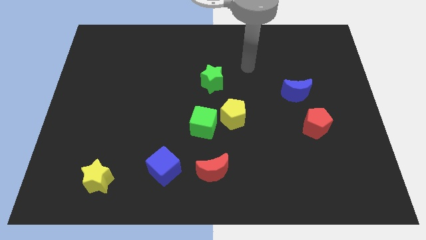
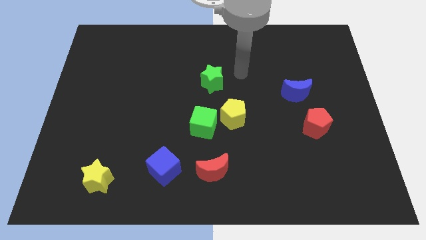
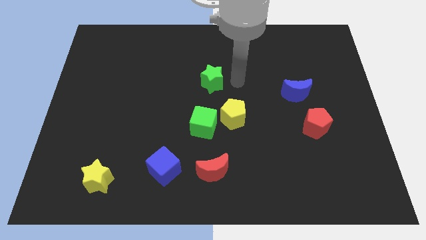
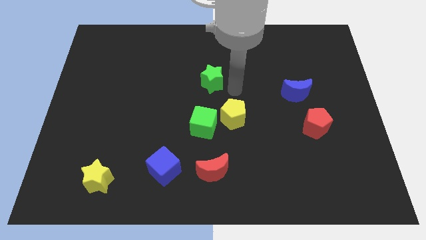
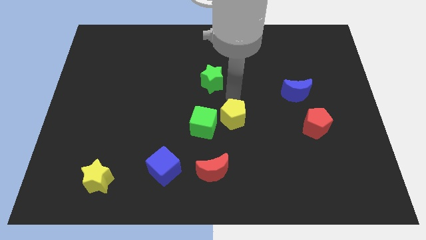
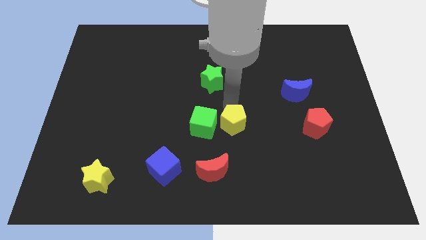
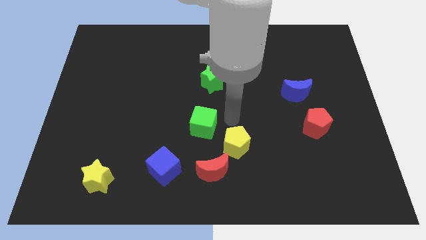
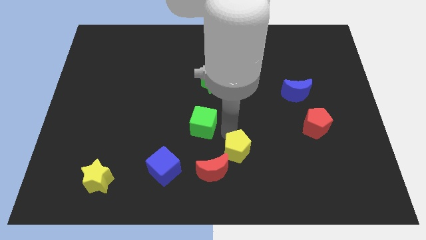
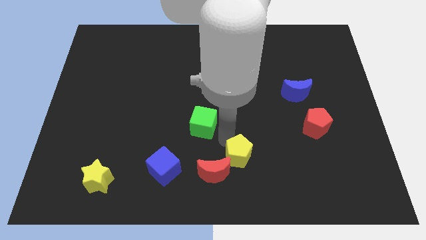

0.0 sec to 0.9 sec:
separate the green cube from the yellow pentagon

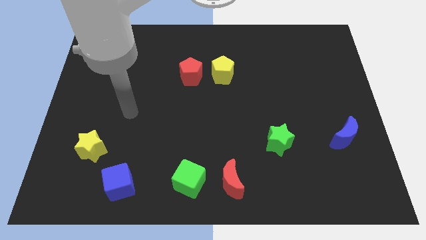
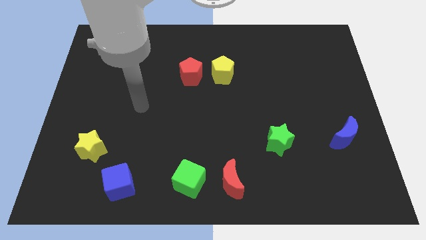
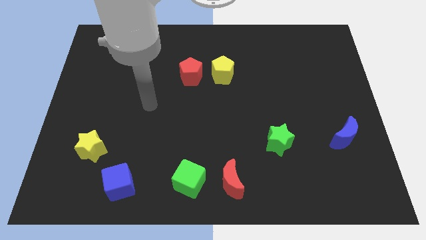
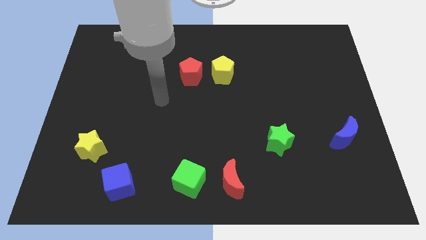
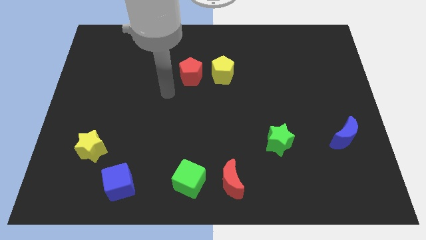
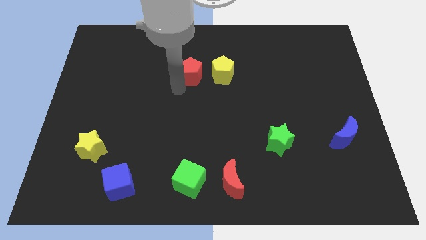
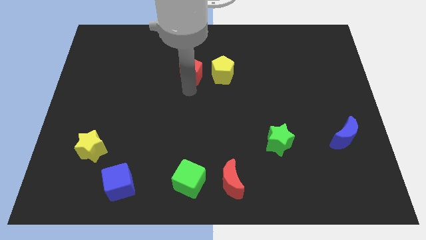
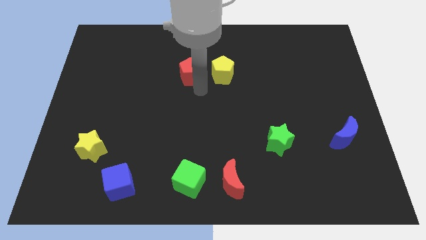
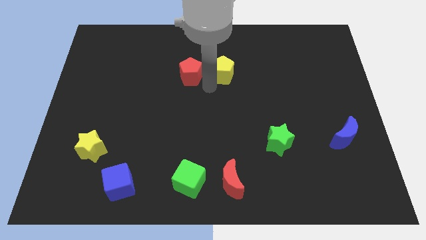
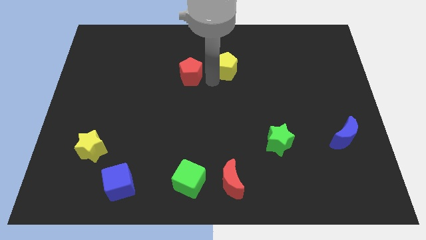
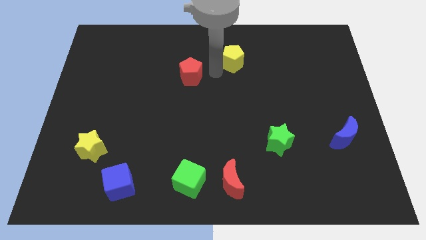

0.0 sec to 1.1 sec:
move the red pentagon away from the yellow pentagon

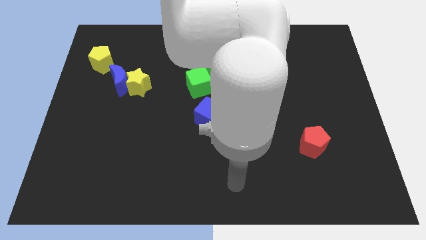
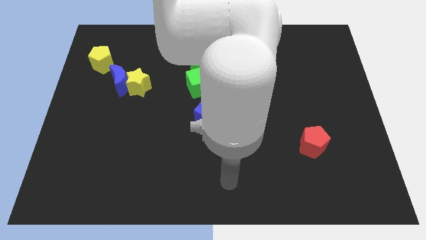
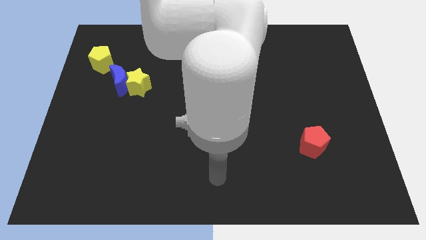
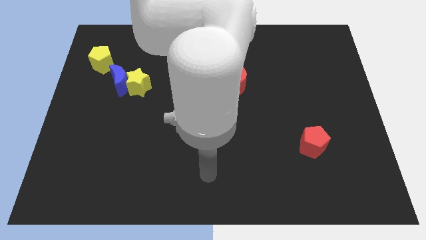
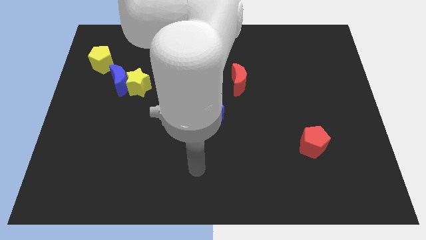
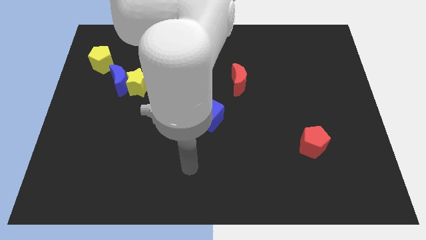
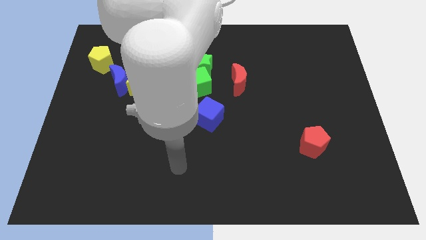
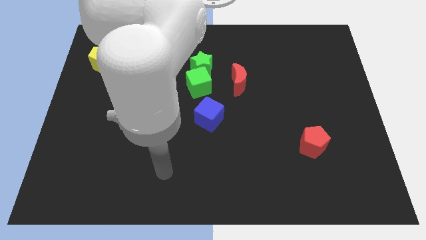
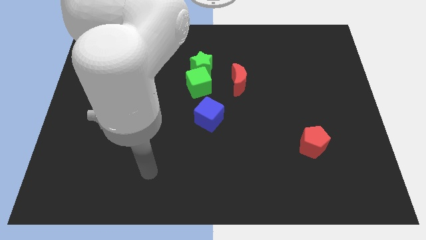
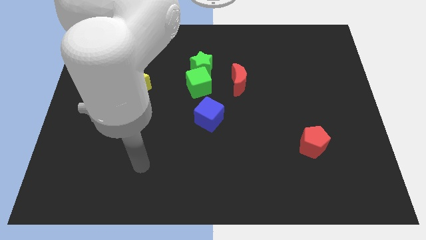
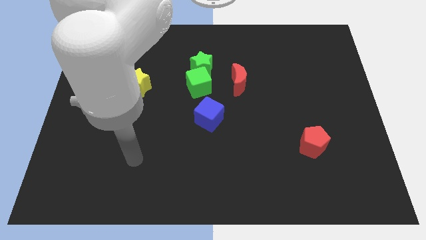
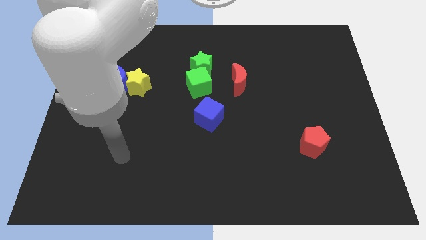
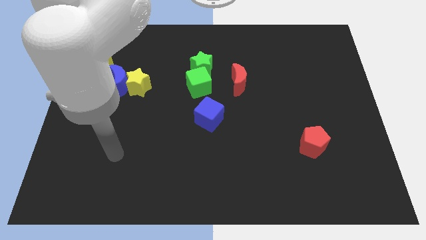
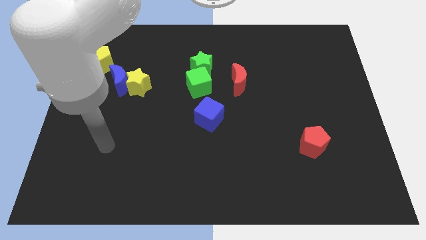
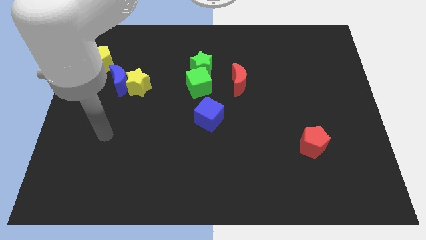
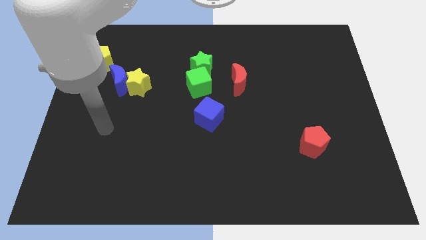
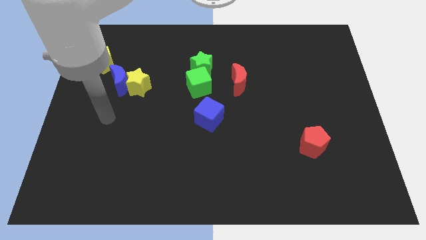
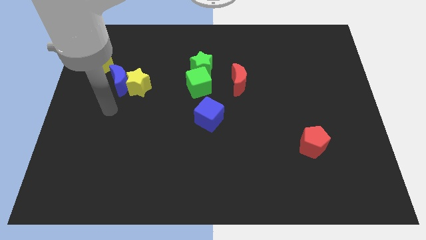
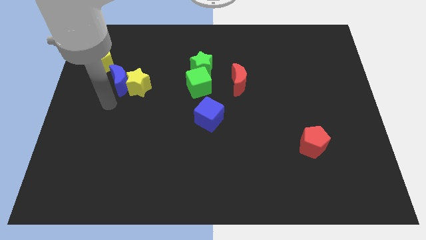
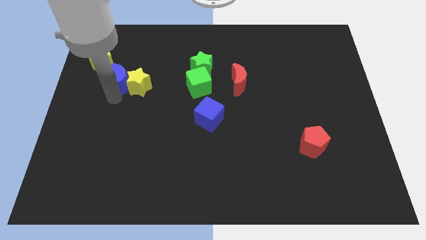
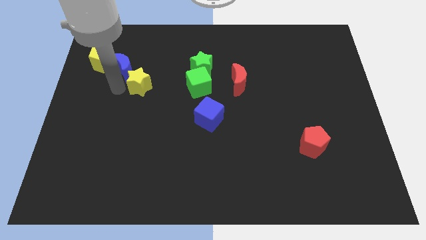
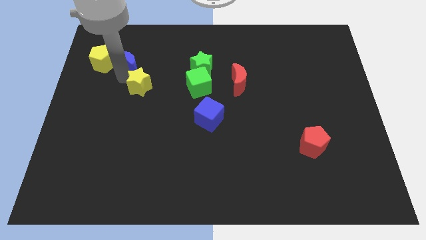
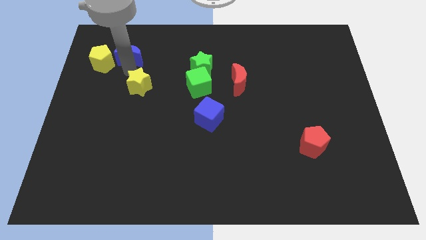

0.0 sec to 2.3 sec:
pull the yellow star apart from the blue moon

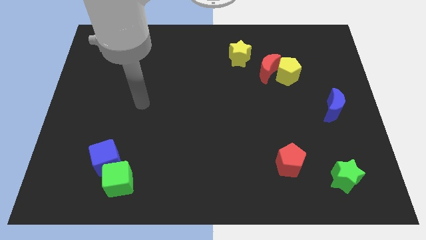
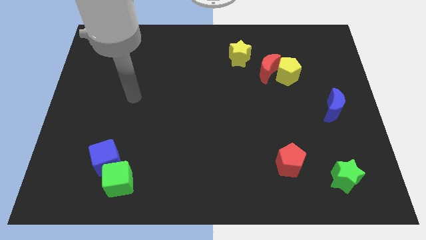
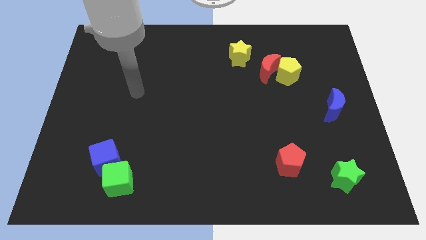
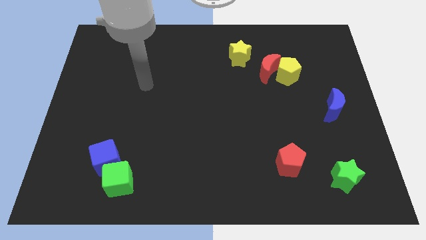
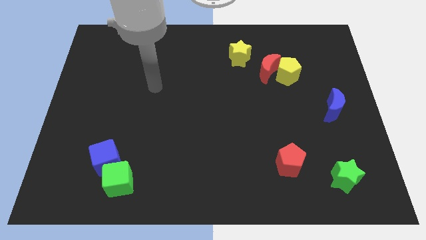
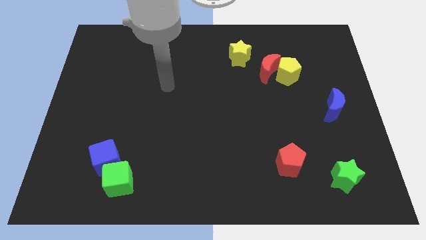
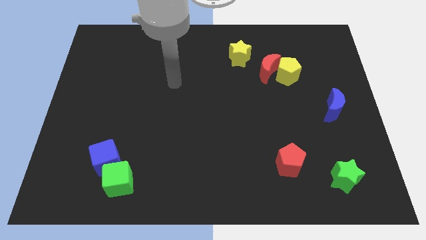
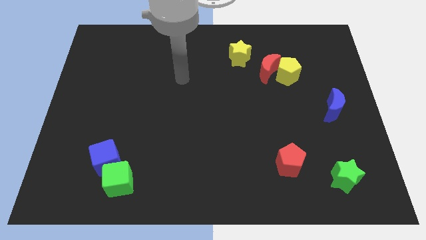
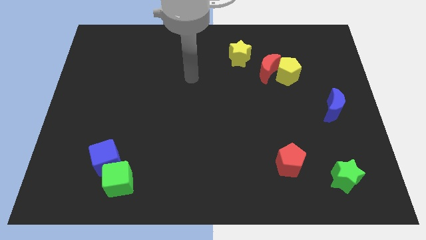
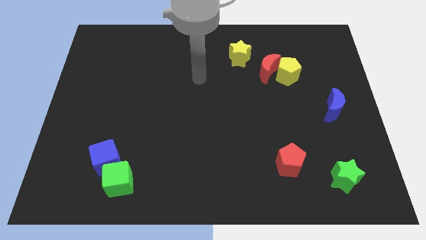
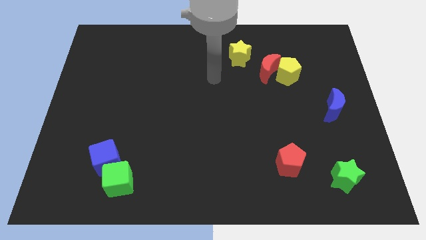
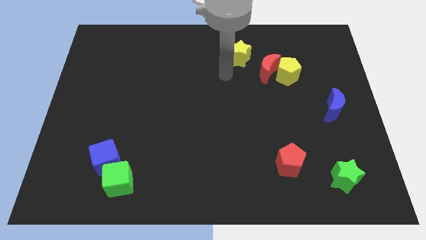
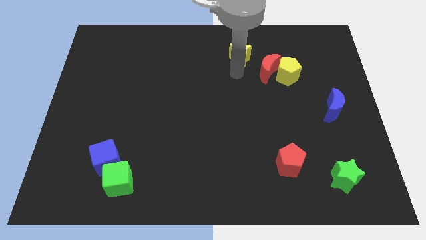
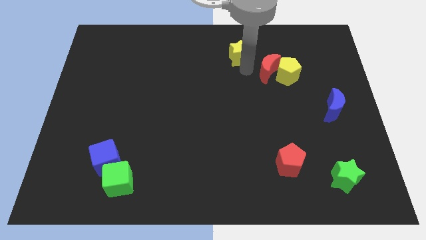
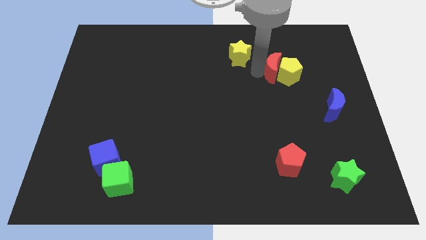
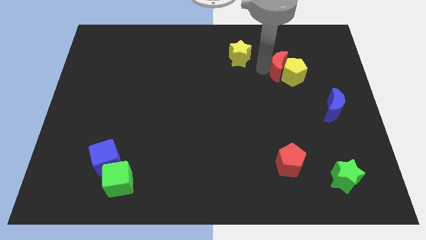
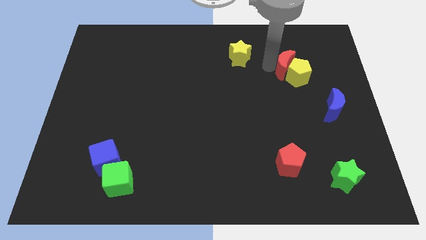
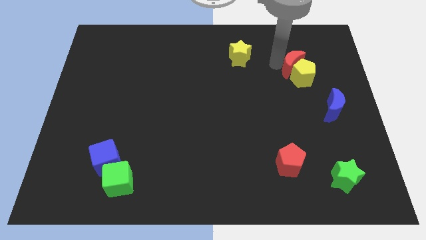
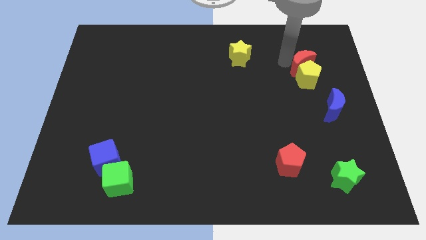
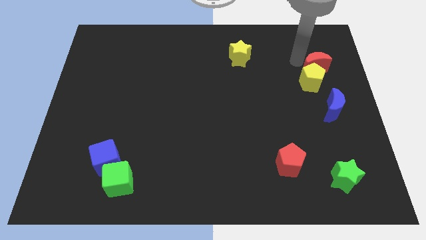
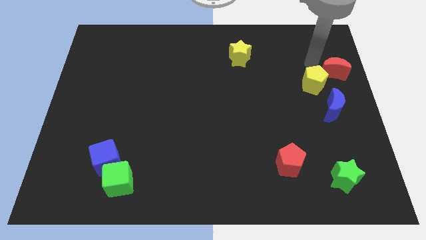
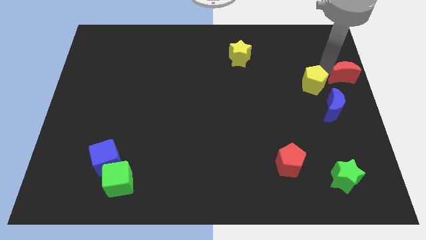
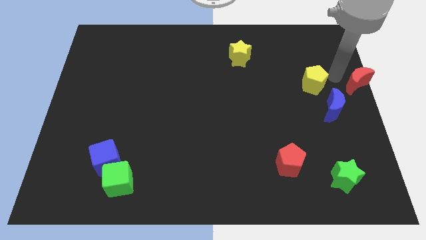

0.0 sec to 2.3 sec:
move the yellow pentagon away from the red moon

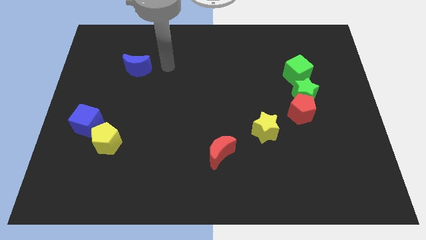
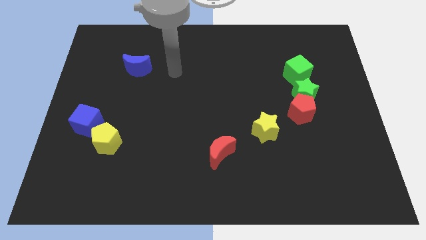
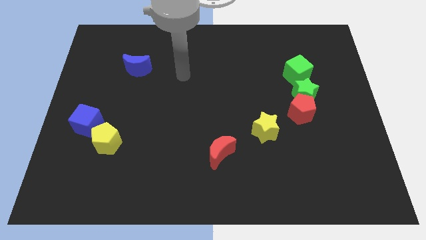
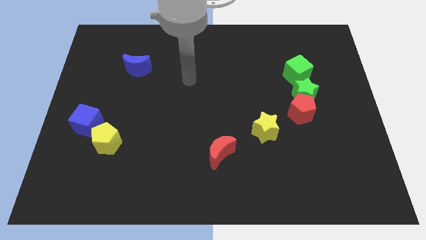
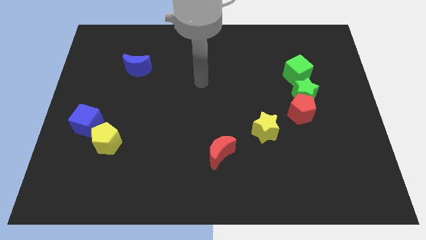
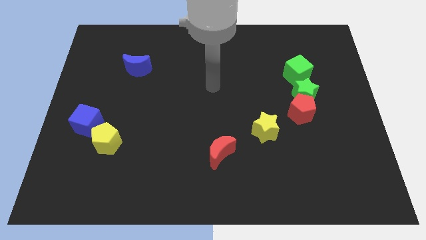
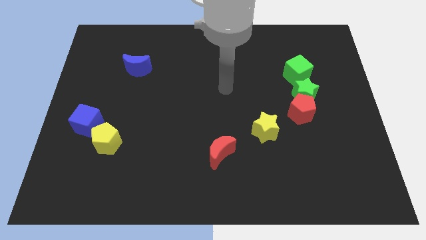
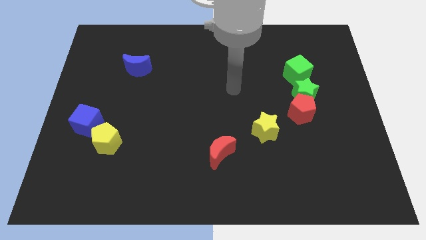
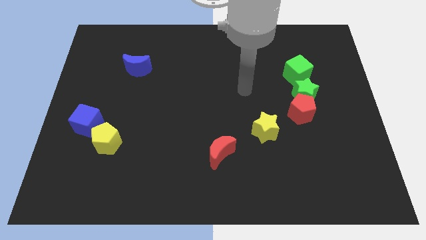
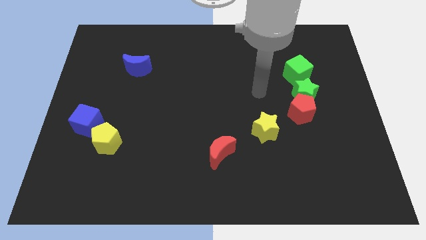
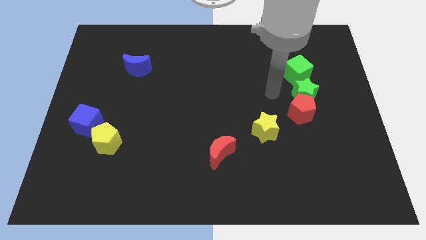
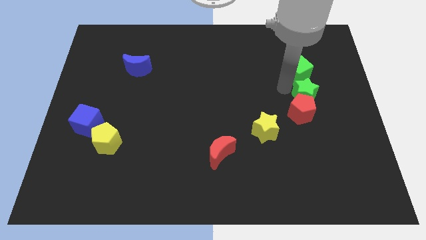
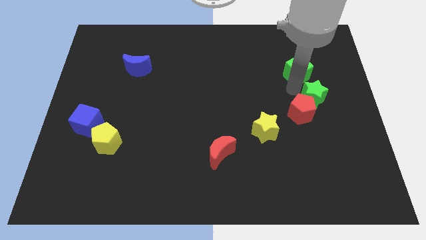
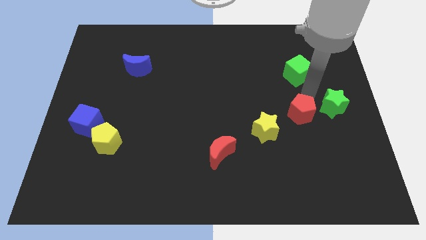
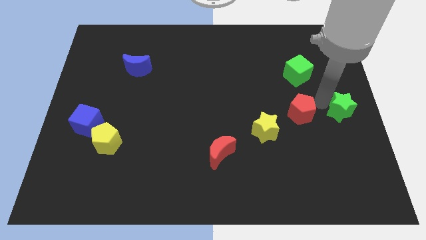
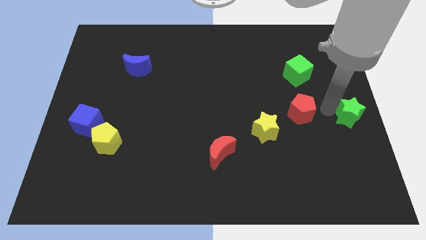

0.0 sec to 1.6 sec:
move the red pentagon away from the green star

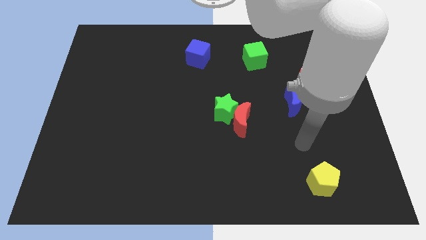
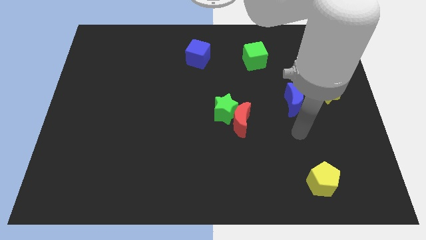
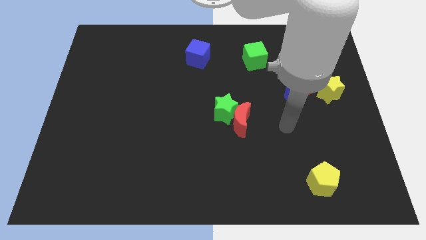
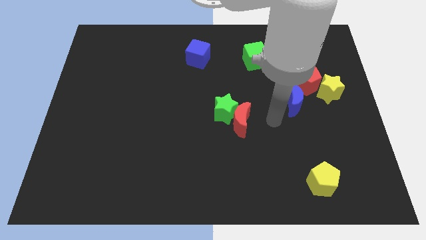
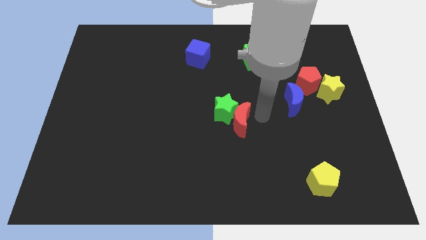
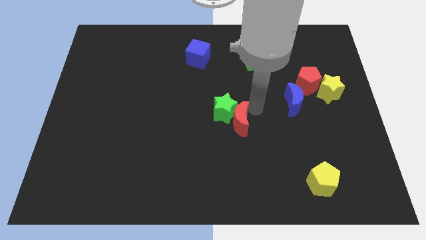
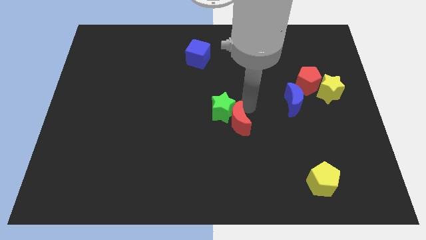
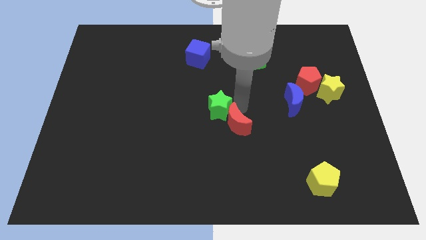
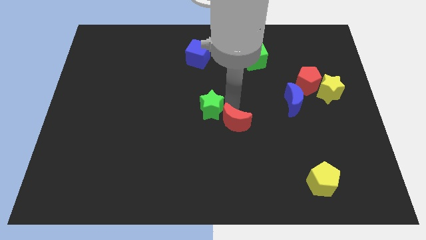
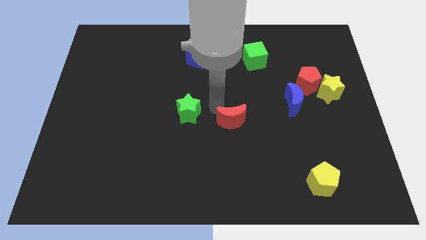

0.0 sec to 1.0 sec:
separate the red moon from the green star
